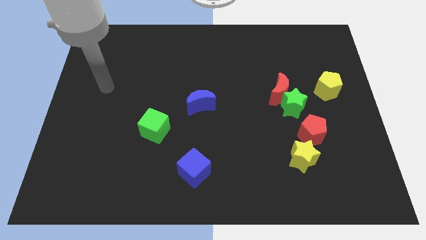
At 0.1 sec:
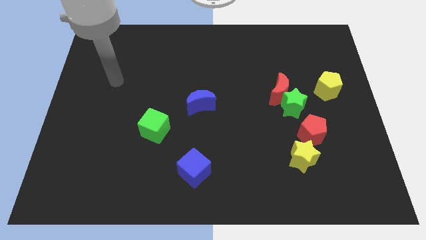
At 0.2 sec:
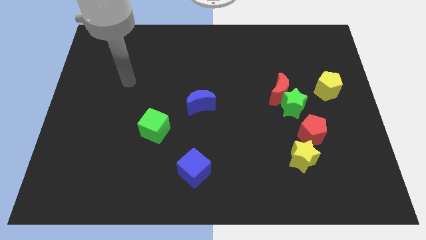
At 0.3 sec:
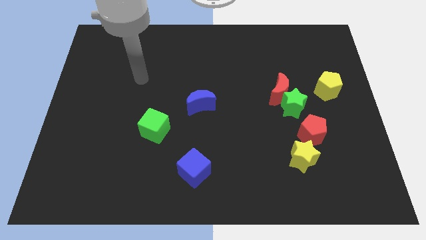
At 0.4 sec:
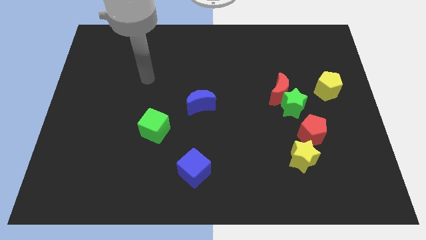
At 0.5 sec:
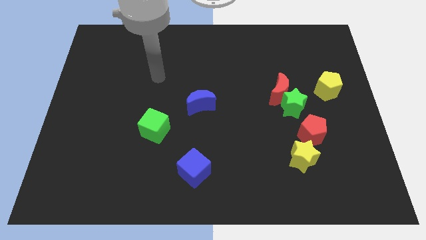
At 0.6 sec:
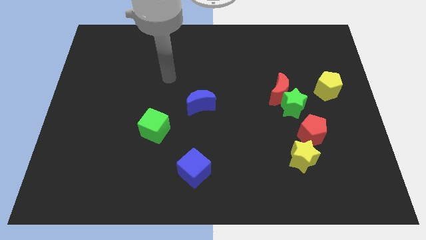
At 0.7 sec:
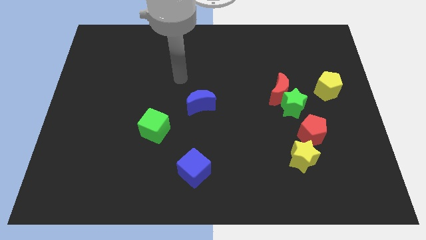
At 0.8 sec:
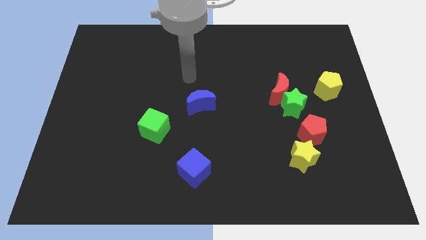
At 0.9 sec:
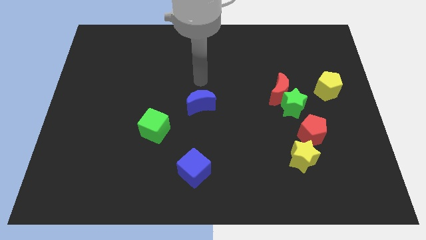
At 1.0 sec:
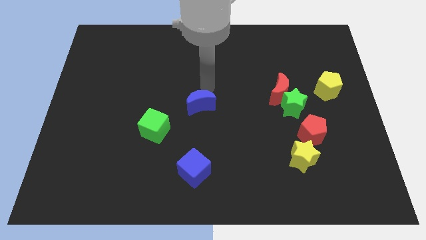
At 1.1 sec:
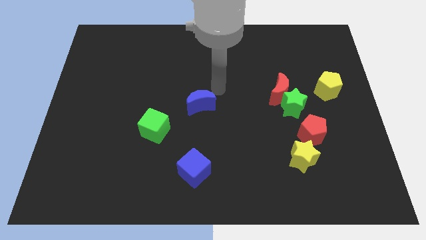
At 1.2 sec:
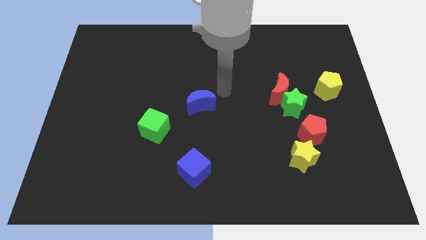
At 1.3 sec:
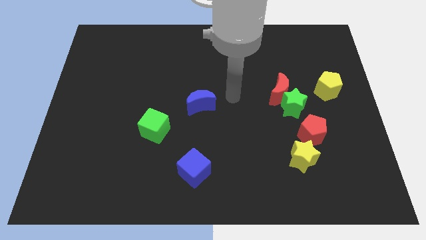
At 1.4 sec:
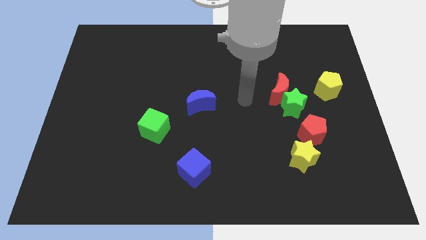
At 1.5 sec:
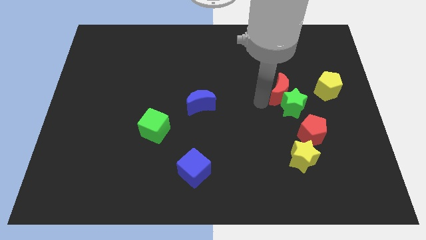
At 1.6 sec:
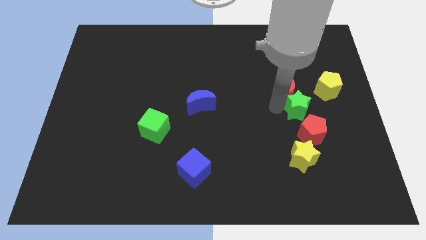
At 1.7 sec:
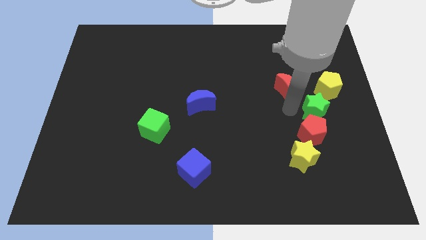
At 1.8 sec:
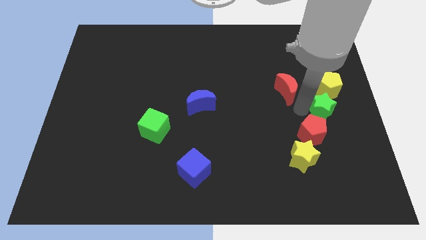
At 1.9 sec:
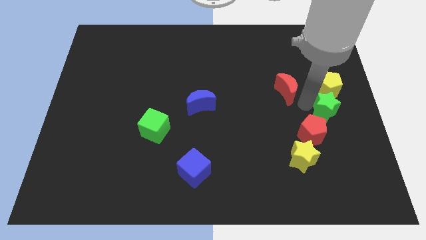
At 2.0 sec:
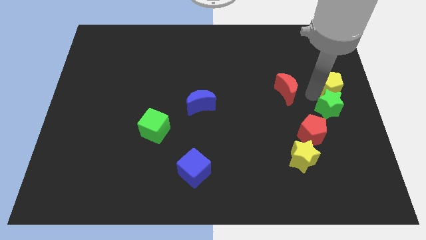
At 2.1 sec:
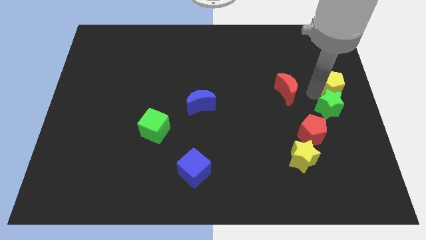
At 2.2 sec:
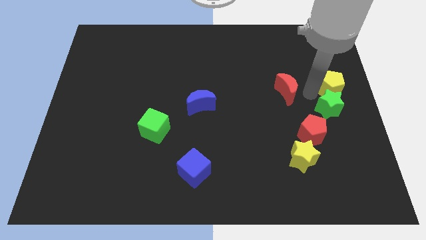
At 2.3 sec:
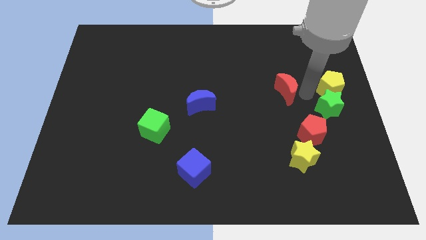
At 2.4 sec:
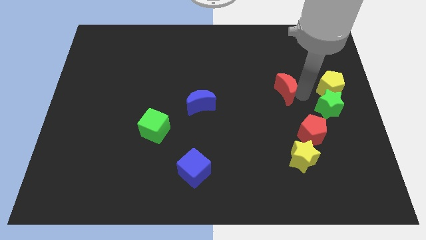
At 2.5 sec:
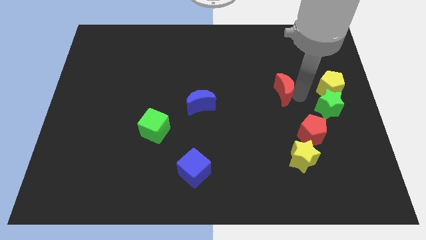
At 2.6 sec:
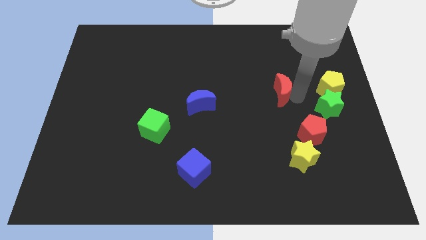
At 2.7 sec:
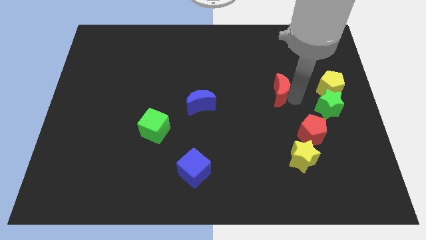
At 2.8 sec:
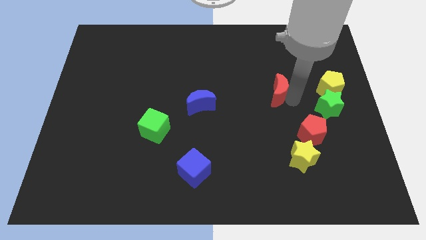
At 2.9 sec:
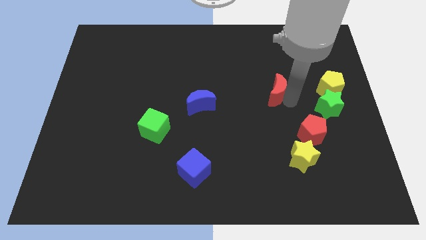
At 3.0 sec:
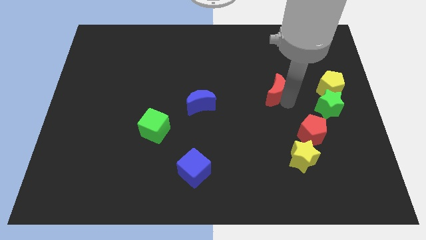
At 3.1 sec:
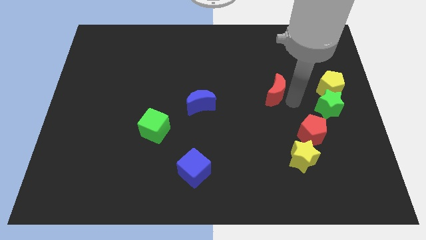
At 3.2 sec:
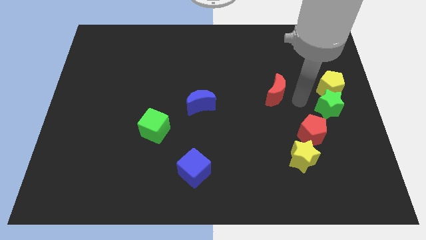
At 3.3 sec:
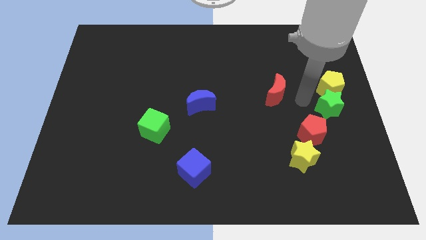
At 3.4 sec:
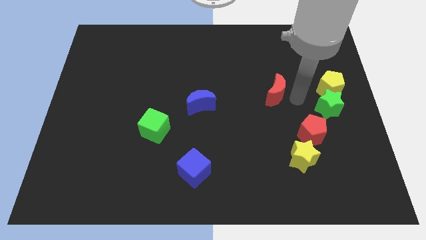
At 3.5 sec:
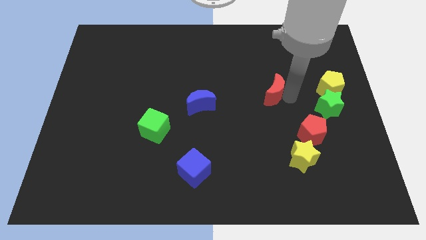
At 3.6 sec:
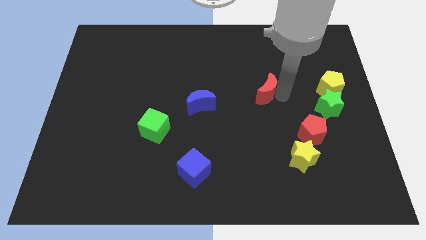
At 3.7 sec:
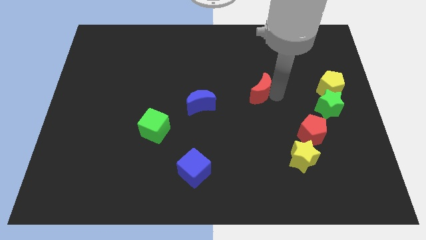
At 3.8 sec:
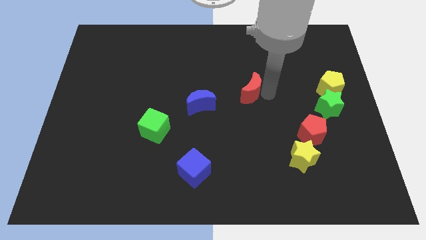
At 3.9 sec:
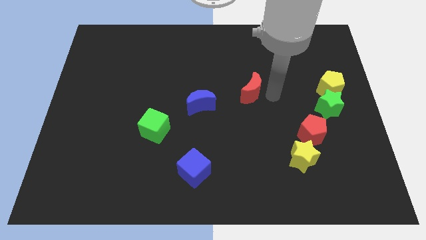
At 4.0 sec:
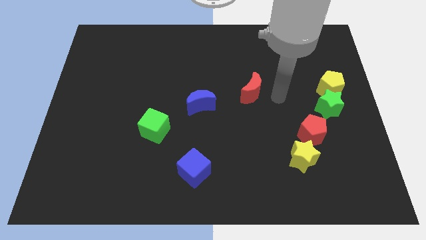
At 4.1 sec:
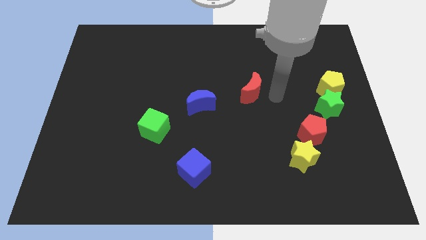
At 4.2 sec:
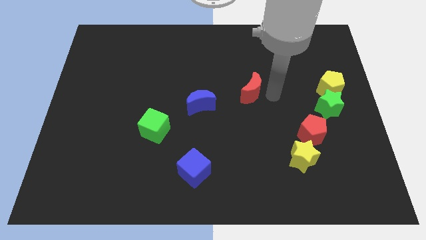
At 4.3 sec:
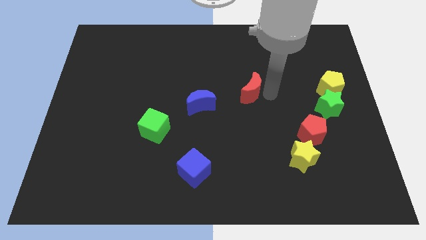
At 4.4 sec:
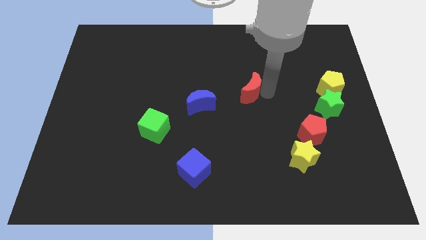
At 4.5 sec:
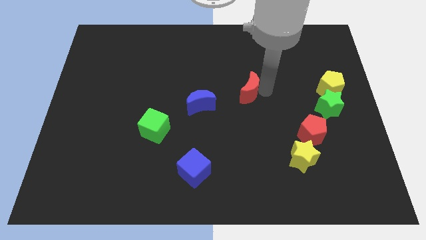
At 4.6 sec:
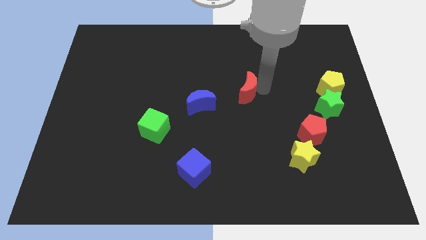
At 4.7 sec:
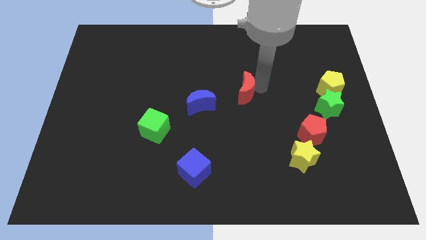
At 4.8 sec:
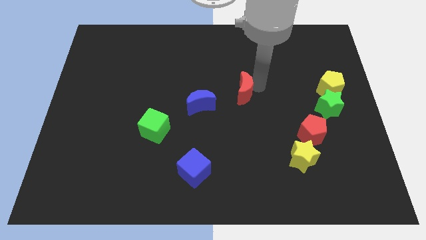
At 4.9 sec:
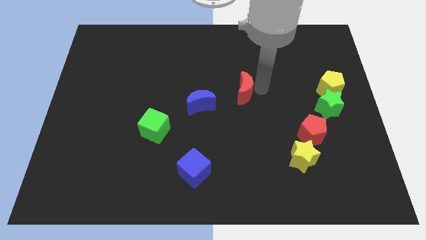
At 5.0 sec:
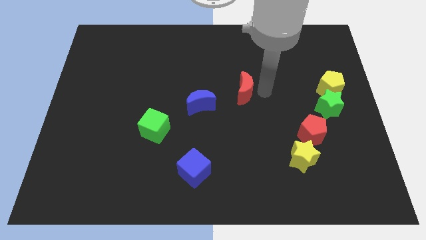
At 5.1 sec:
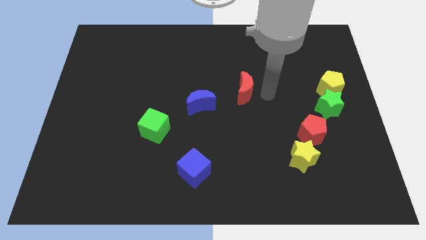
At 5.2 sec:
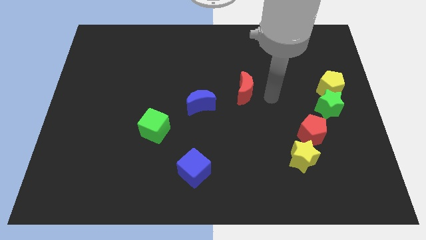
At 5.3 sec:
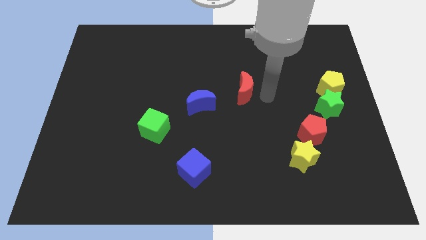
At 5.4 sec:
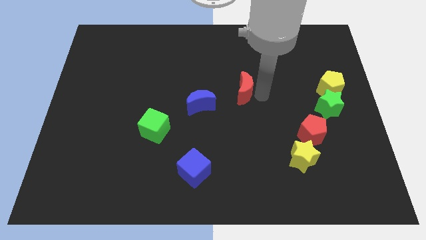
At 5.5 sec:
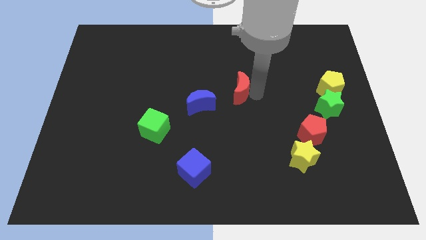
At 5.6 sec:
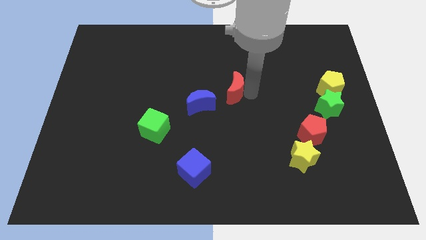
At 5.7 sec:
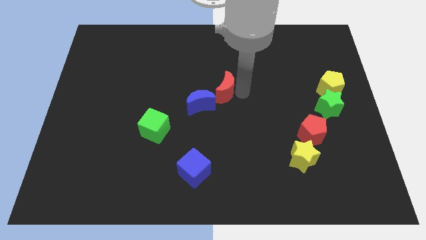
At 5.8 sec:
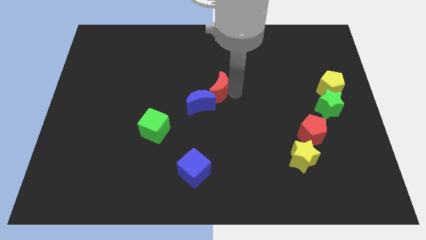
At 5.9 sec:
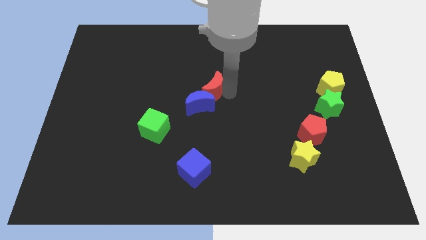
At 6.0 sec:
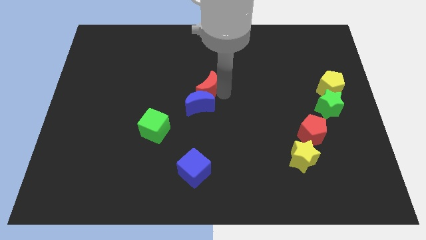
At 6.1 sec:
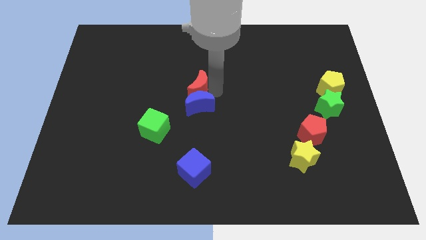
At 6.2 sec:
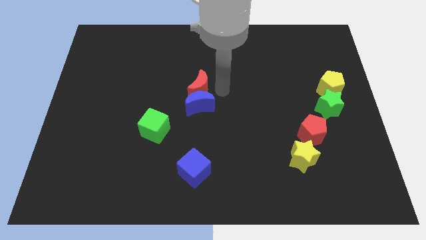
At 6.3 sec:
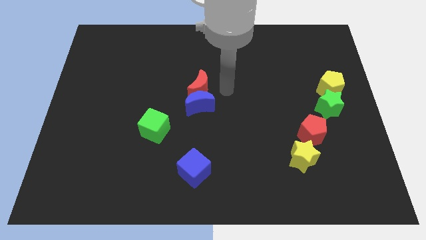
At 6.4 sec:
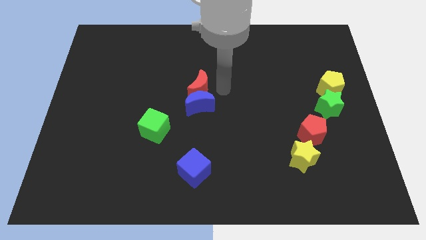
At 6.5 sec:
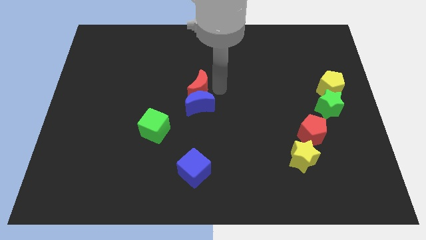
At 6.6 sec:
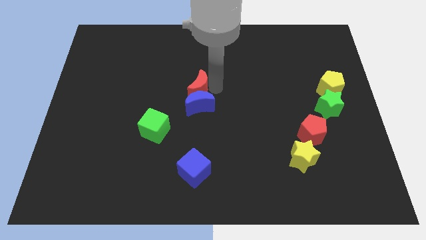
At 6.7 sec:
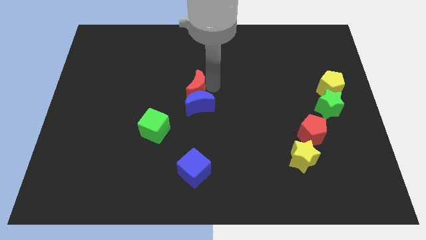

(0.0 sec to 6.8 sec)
move the red moon left

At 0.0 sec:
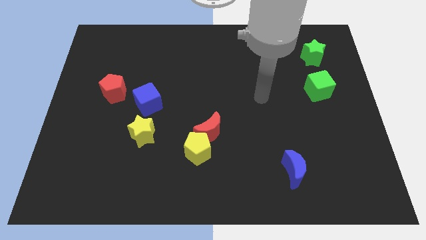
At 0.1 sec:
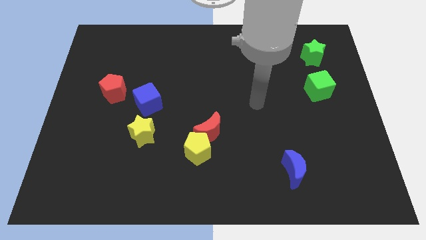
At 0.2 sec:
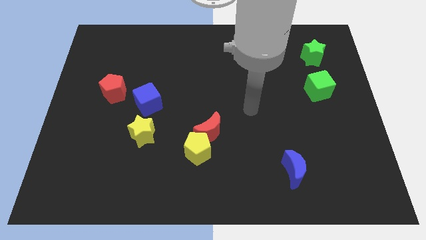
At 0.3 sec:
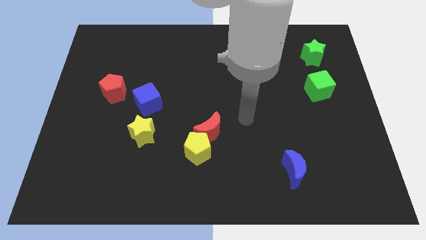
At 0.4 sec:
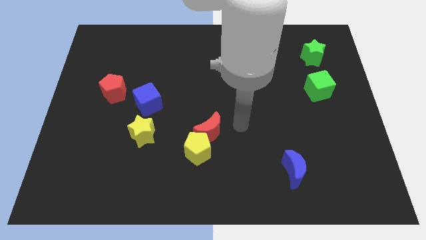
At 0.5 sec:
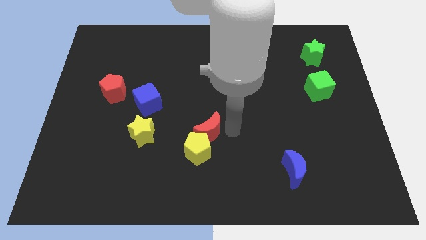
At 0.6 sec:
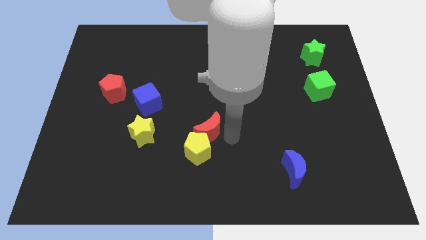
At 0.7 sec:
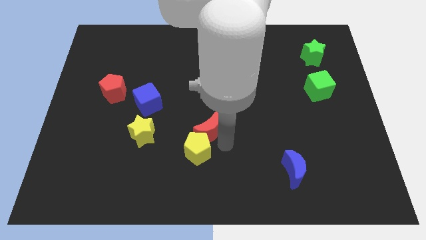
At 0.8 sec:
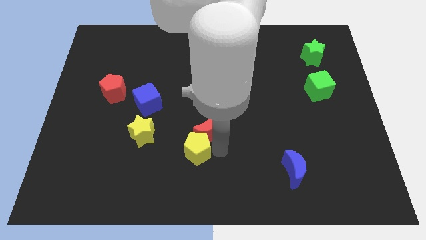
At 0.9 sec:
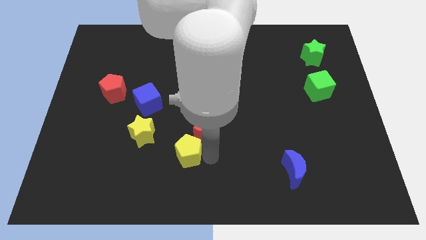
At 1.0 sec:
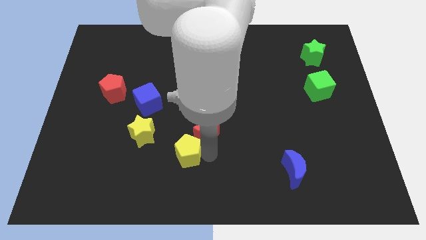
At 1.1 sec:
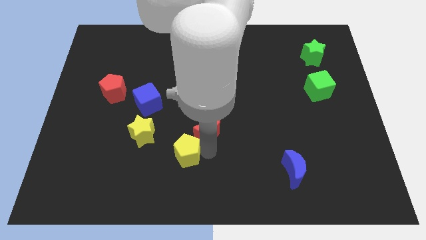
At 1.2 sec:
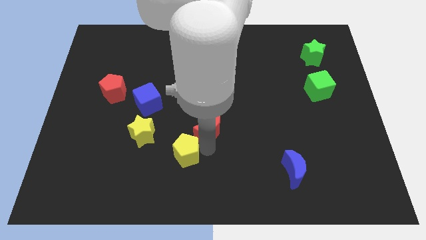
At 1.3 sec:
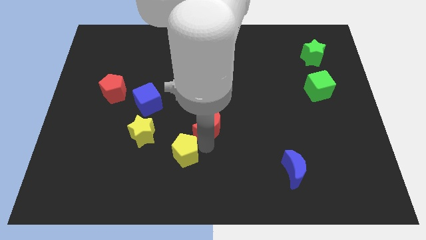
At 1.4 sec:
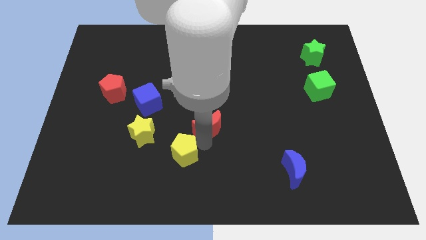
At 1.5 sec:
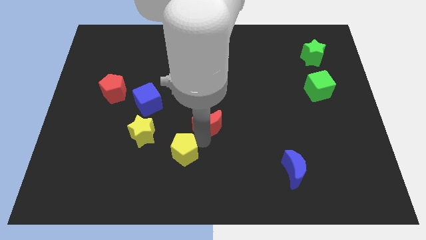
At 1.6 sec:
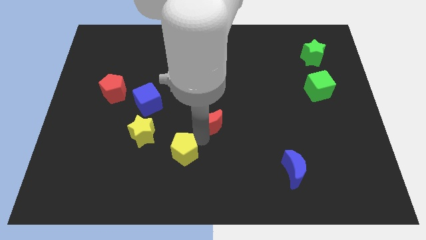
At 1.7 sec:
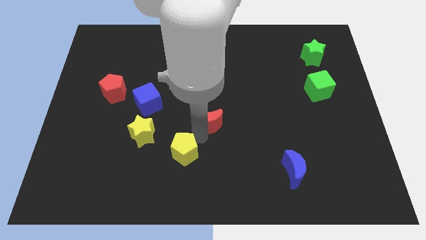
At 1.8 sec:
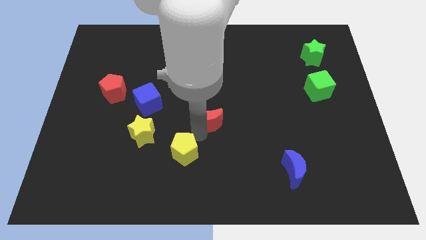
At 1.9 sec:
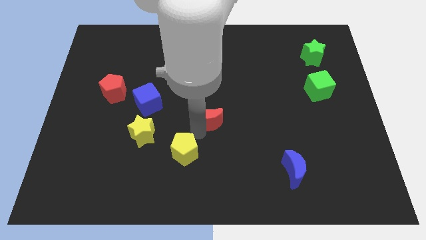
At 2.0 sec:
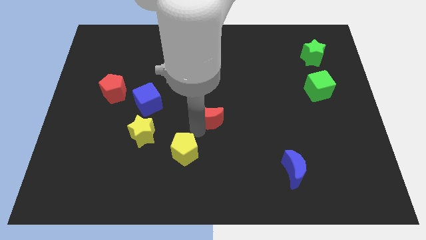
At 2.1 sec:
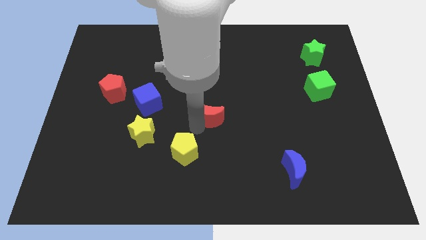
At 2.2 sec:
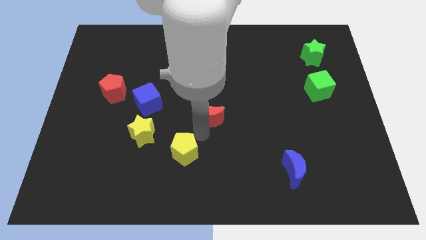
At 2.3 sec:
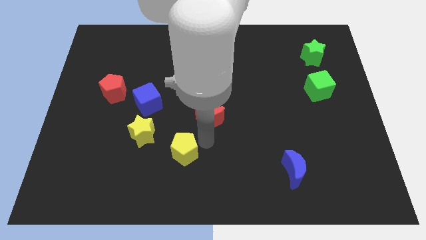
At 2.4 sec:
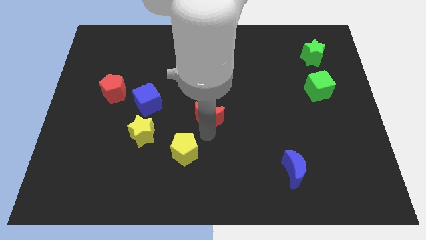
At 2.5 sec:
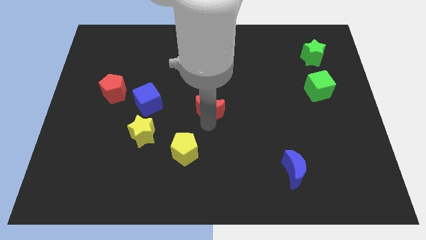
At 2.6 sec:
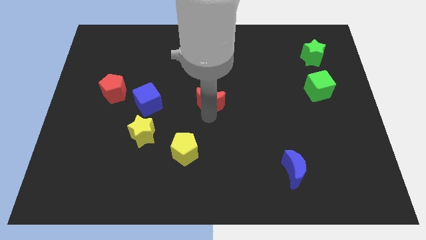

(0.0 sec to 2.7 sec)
slightly push the red moon up
